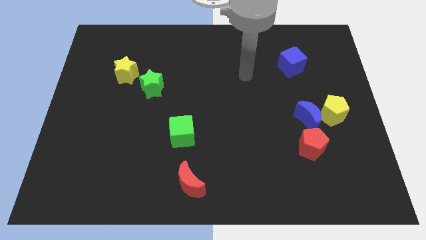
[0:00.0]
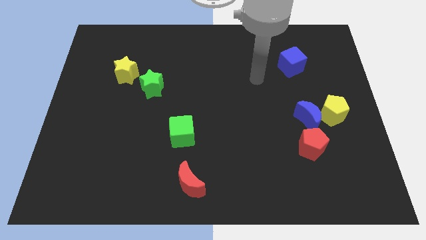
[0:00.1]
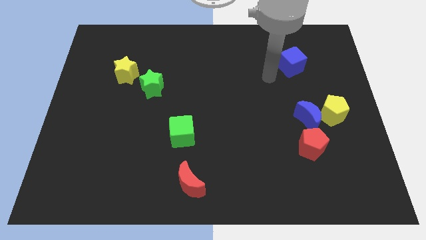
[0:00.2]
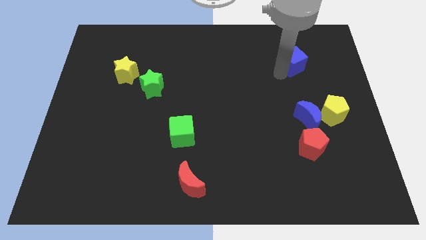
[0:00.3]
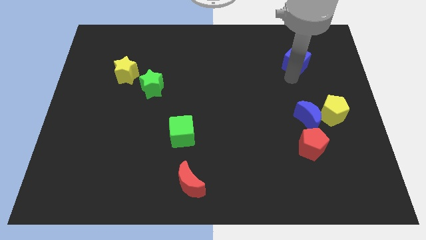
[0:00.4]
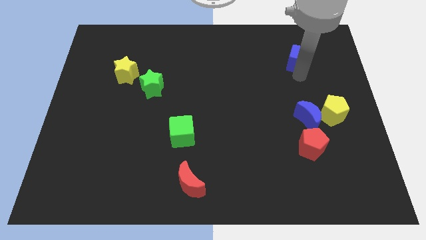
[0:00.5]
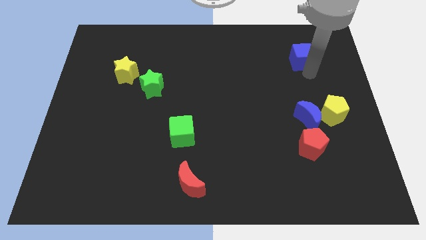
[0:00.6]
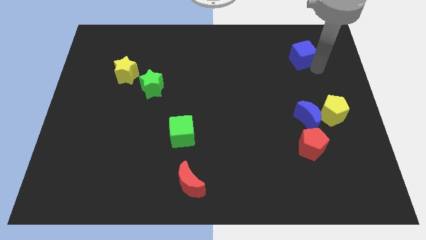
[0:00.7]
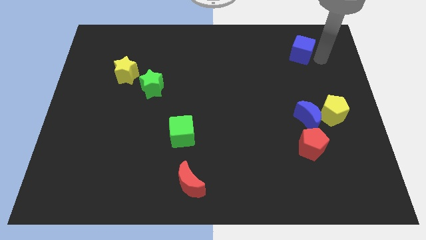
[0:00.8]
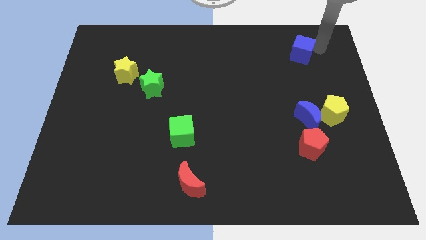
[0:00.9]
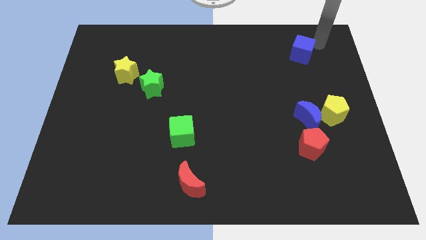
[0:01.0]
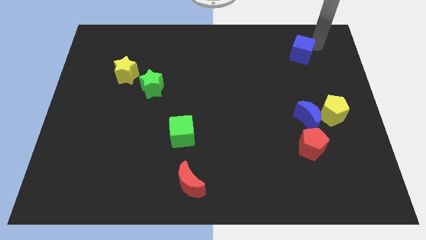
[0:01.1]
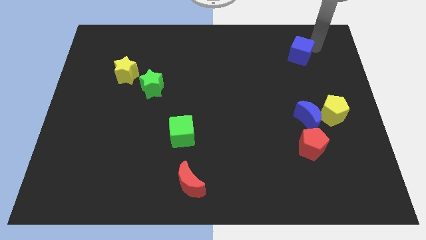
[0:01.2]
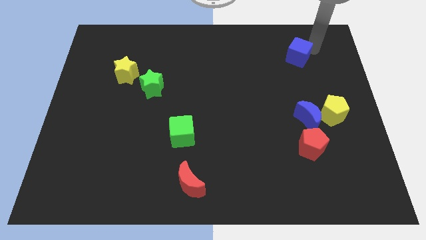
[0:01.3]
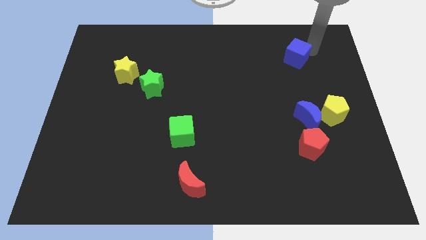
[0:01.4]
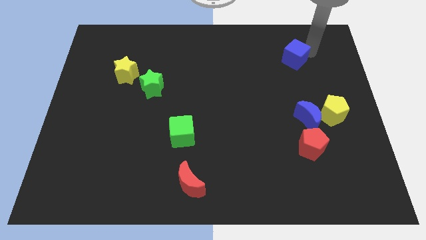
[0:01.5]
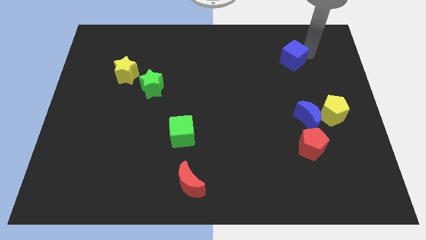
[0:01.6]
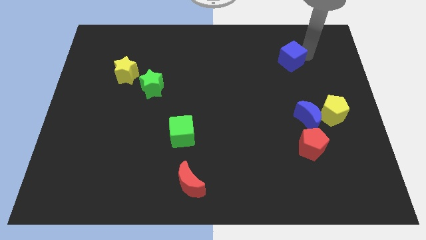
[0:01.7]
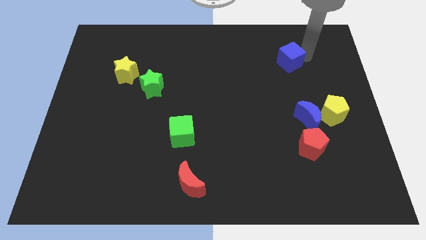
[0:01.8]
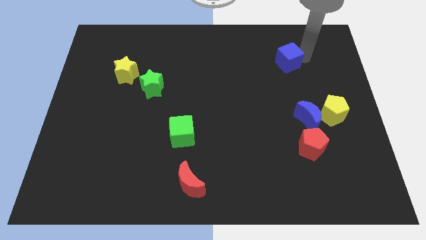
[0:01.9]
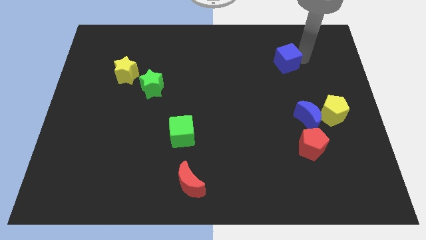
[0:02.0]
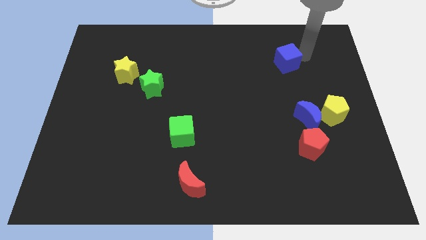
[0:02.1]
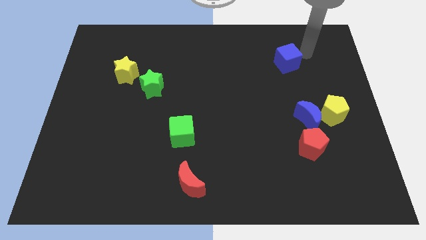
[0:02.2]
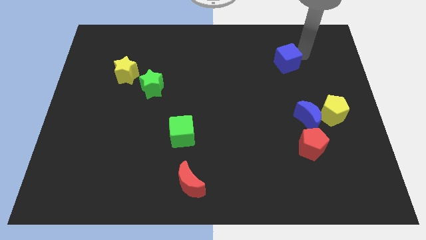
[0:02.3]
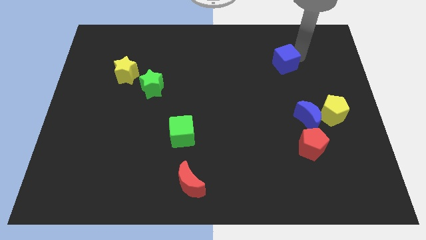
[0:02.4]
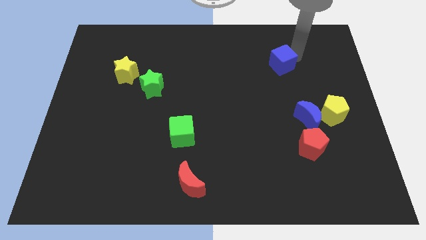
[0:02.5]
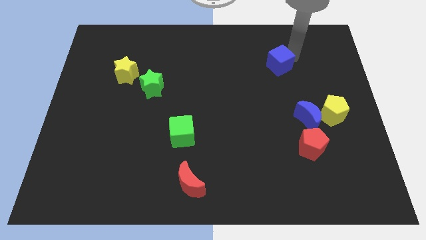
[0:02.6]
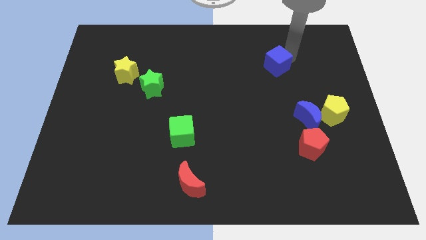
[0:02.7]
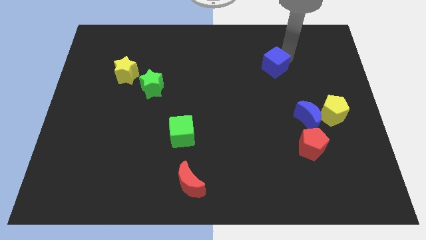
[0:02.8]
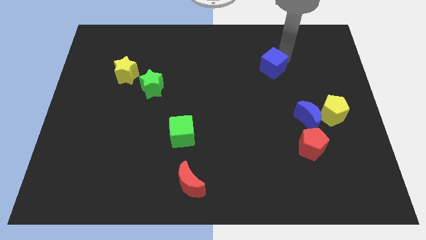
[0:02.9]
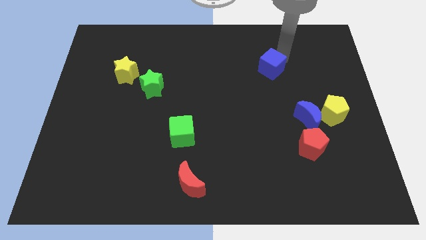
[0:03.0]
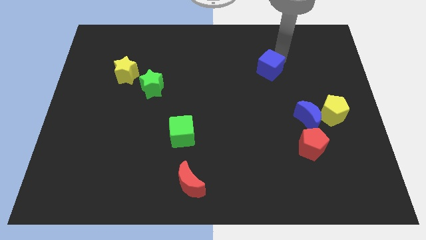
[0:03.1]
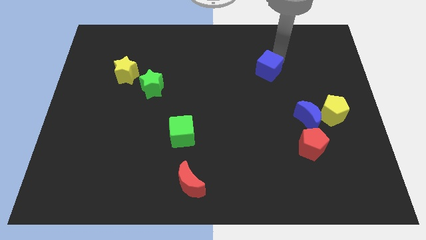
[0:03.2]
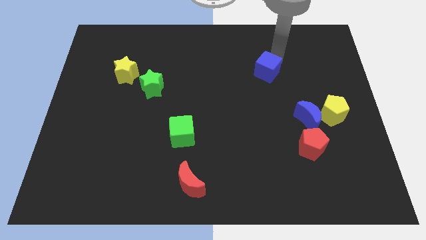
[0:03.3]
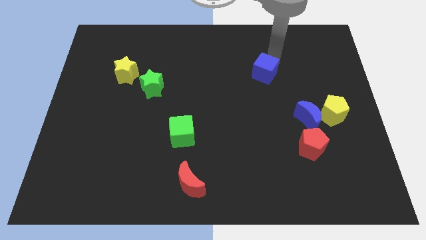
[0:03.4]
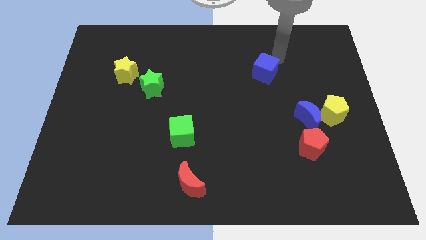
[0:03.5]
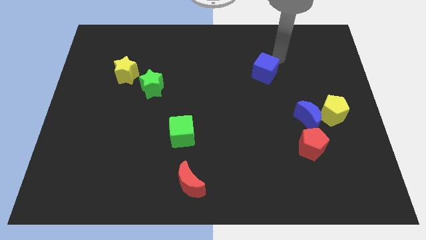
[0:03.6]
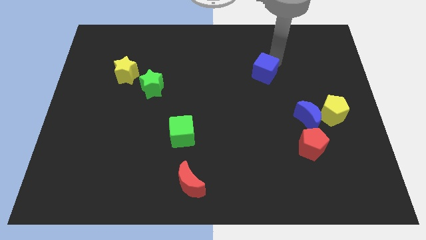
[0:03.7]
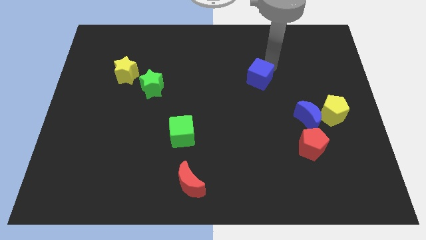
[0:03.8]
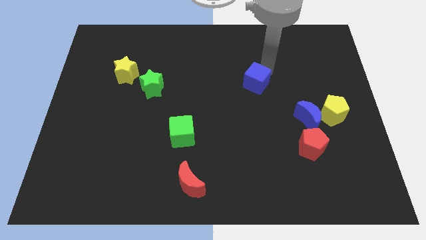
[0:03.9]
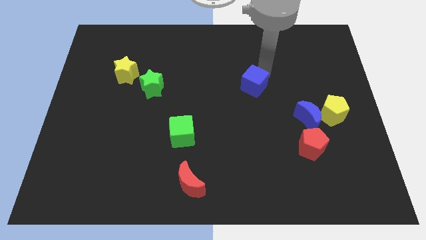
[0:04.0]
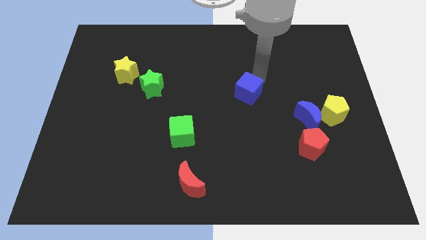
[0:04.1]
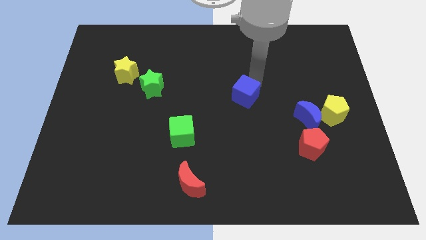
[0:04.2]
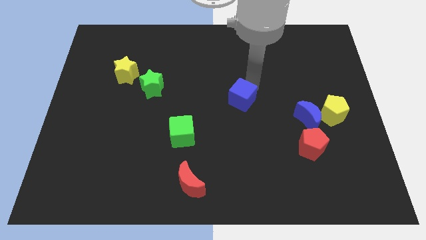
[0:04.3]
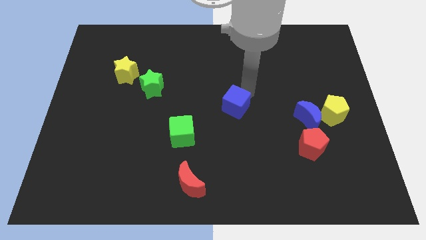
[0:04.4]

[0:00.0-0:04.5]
slide the blue cube downwards and left

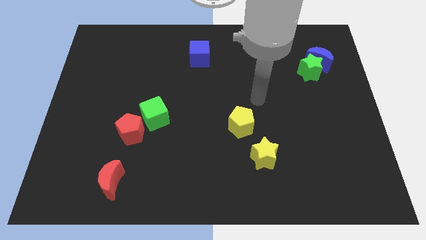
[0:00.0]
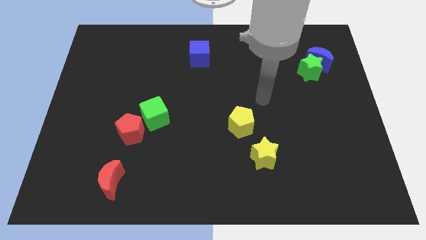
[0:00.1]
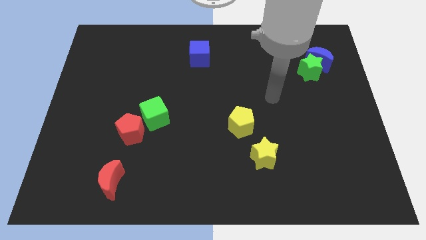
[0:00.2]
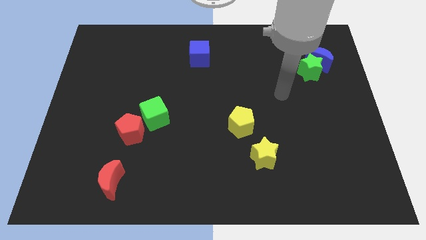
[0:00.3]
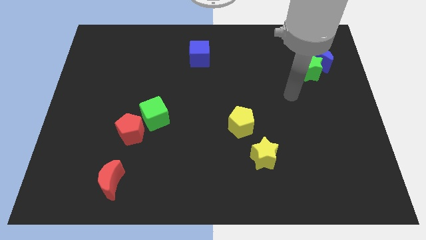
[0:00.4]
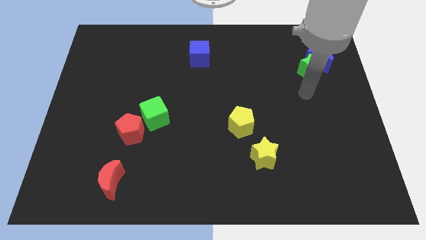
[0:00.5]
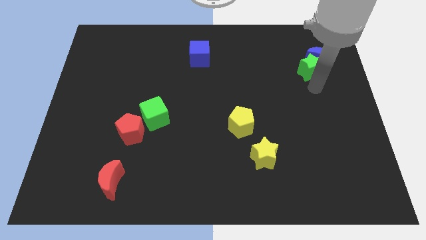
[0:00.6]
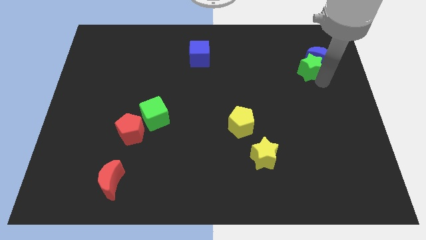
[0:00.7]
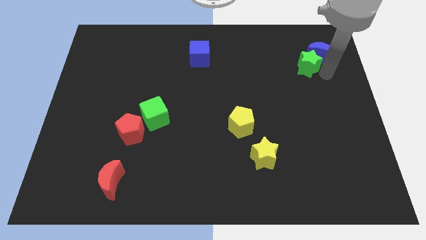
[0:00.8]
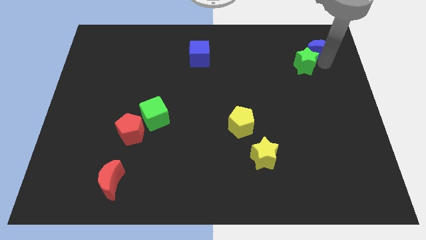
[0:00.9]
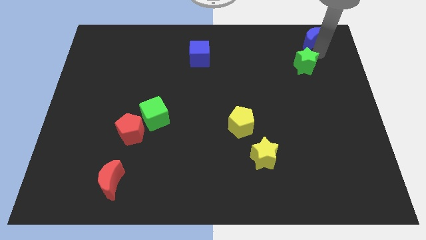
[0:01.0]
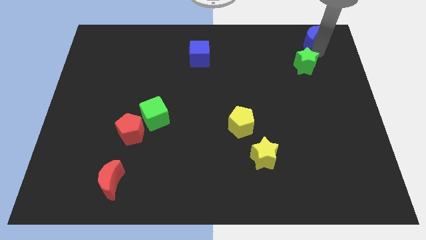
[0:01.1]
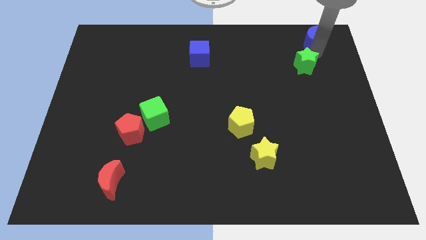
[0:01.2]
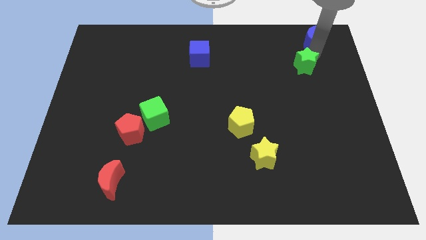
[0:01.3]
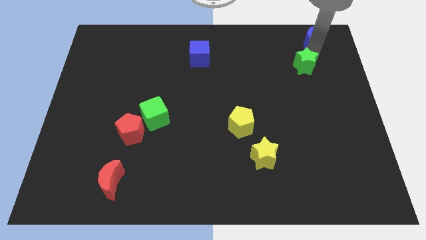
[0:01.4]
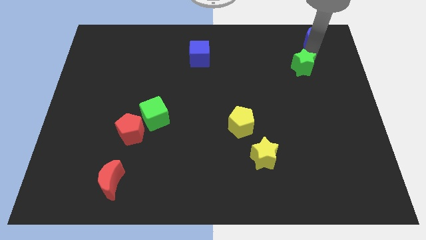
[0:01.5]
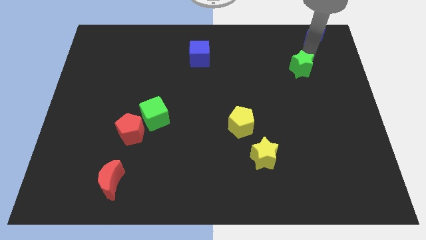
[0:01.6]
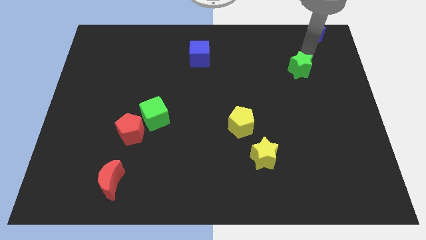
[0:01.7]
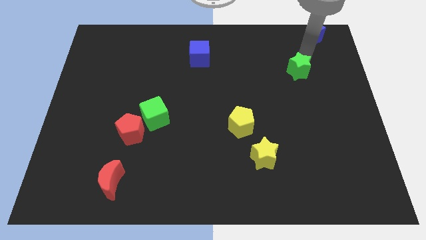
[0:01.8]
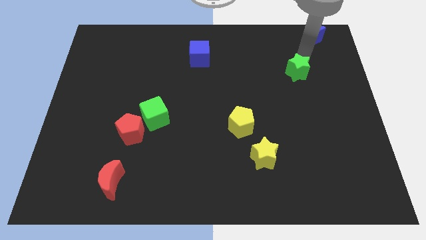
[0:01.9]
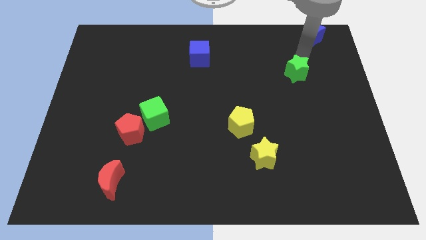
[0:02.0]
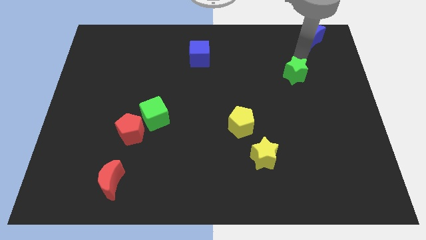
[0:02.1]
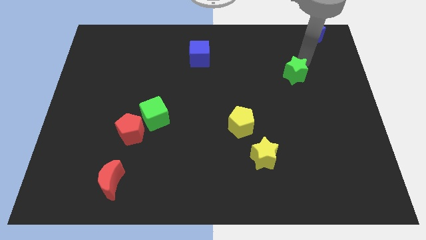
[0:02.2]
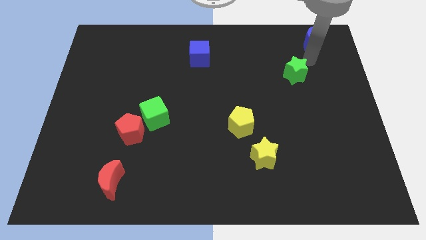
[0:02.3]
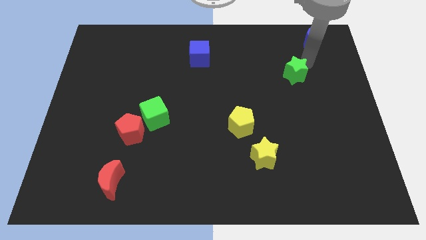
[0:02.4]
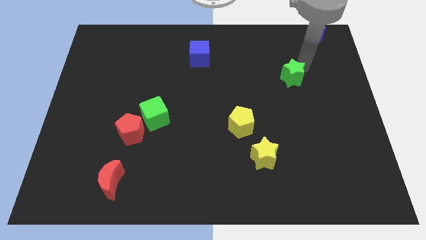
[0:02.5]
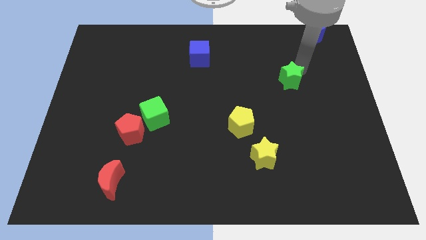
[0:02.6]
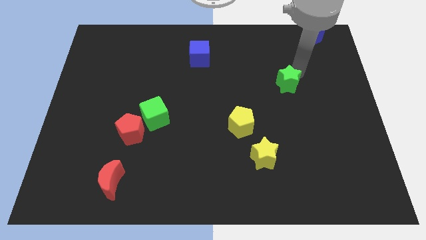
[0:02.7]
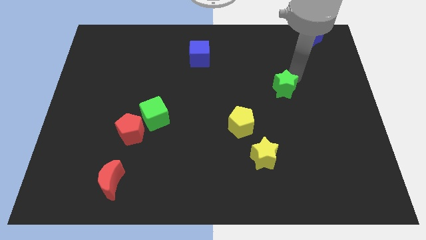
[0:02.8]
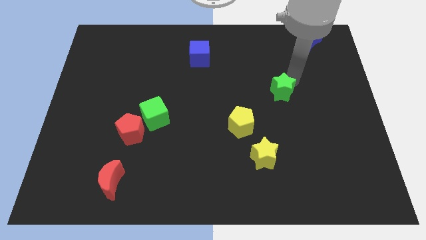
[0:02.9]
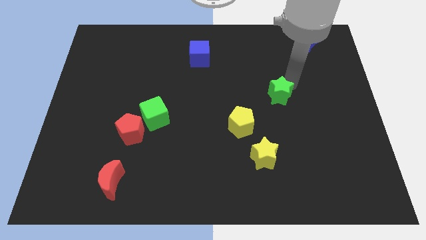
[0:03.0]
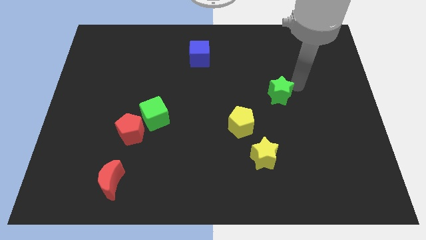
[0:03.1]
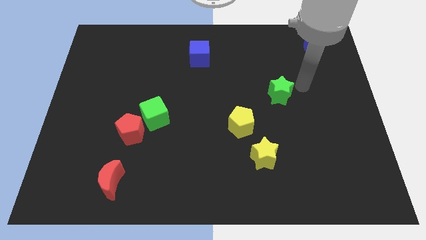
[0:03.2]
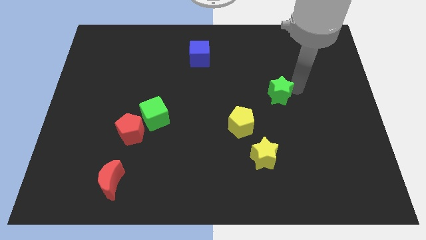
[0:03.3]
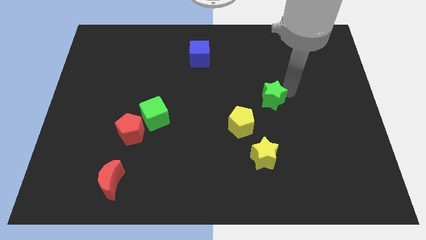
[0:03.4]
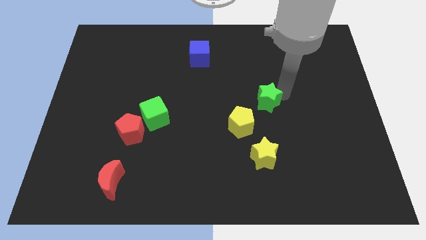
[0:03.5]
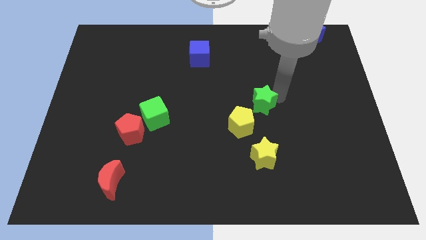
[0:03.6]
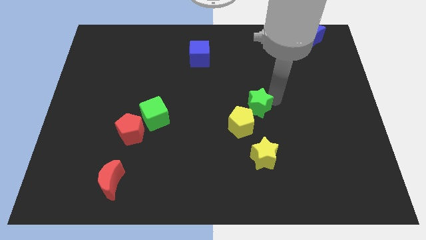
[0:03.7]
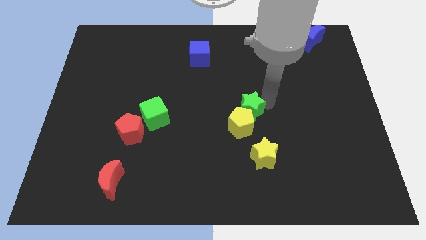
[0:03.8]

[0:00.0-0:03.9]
slide the green star diagonally downwards and to the left
